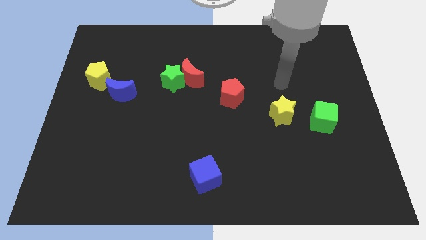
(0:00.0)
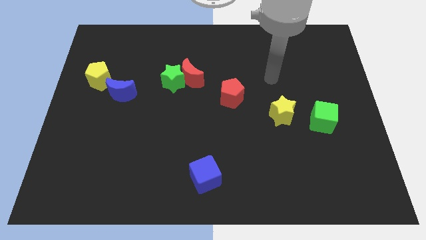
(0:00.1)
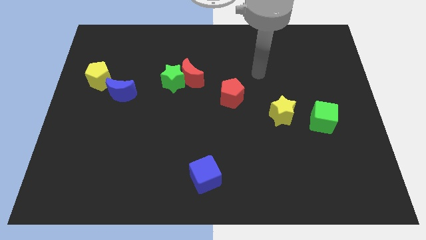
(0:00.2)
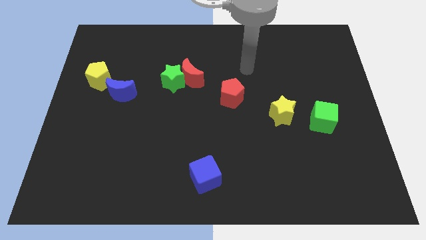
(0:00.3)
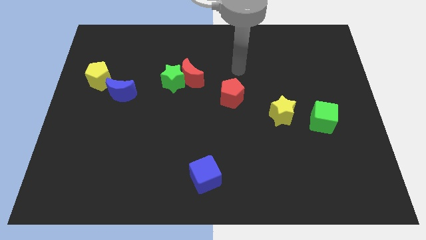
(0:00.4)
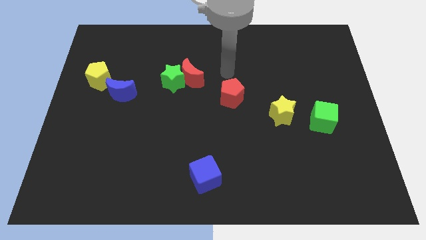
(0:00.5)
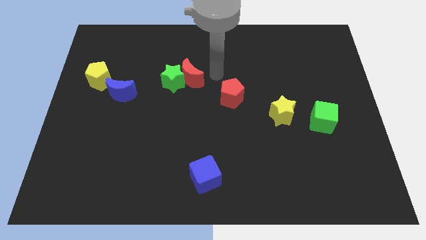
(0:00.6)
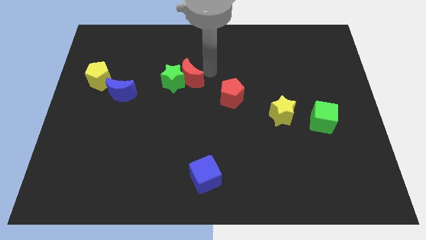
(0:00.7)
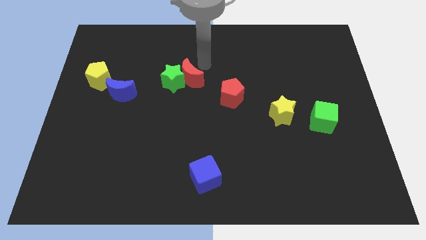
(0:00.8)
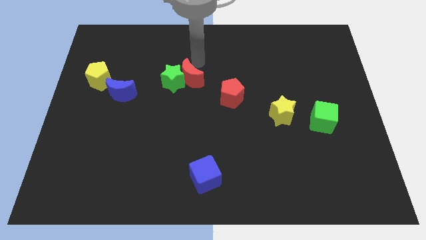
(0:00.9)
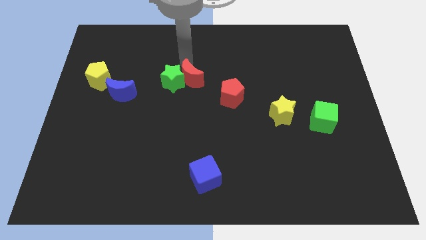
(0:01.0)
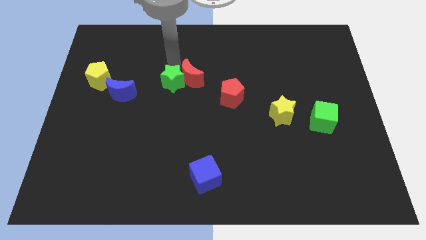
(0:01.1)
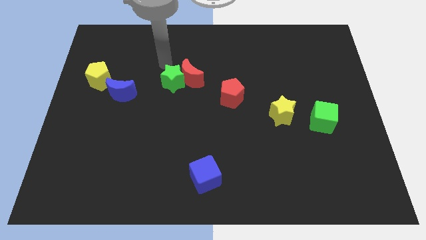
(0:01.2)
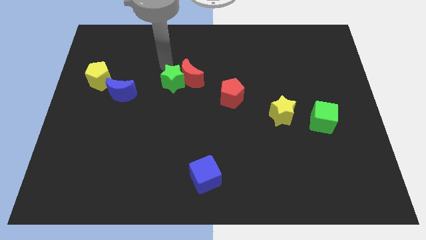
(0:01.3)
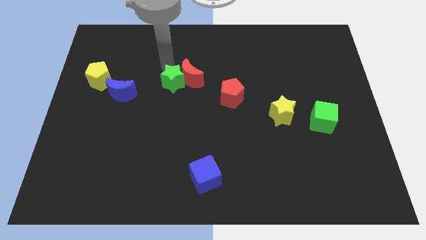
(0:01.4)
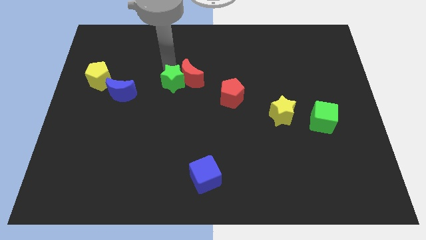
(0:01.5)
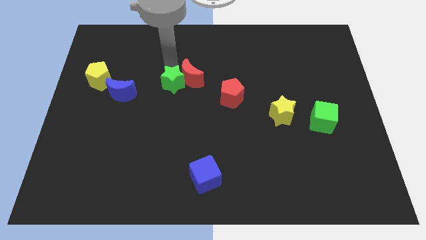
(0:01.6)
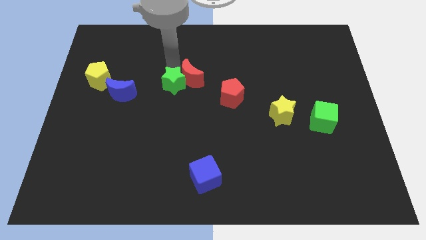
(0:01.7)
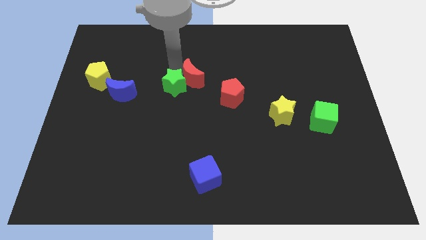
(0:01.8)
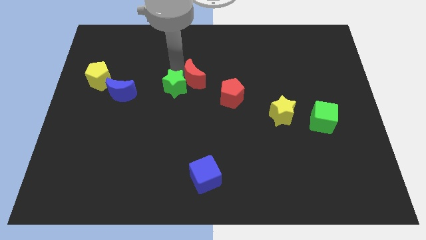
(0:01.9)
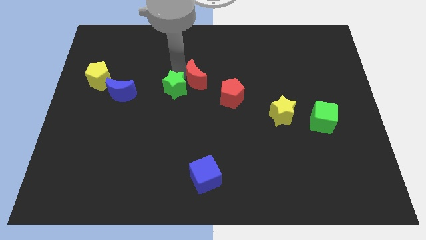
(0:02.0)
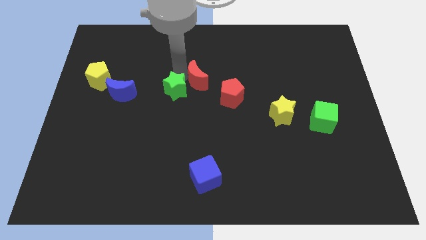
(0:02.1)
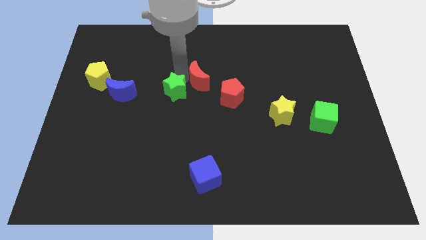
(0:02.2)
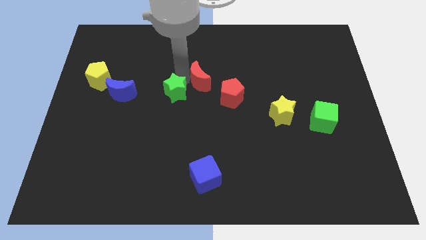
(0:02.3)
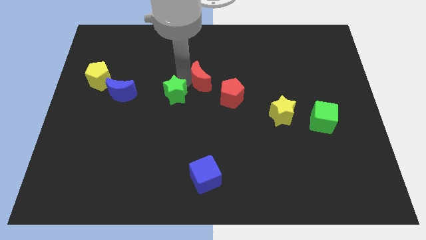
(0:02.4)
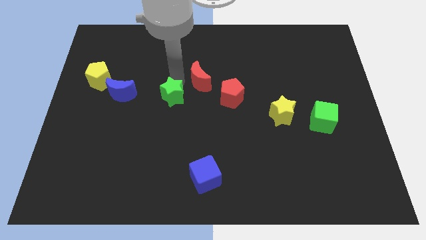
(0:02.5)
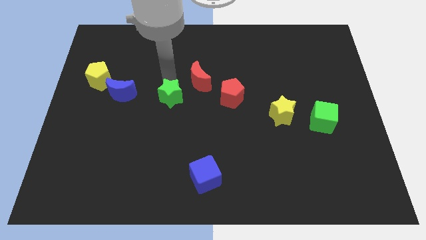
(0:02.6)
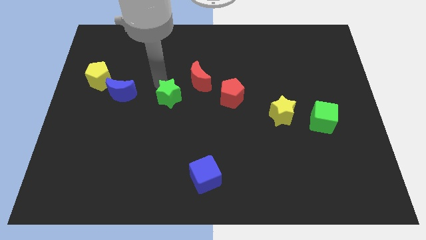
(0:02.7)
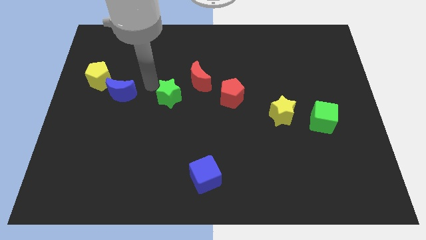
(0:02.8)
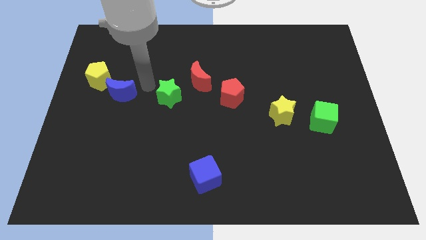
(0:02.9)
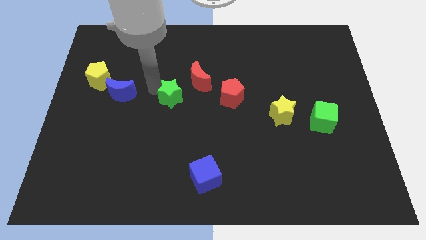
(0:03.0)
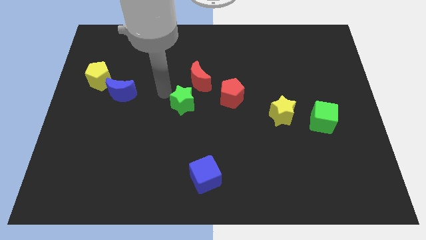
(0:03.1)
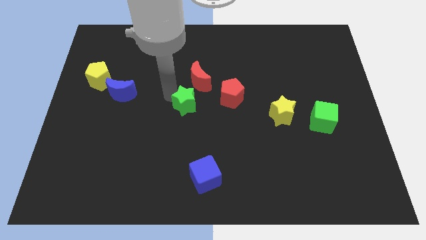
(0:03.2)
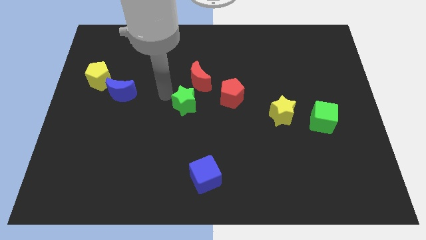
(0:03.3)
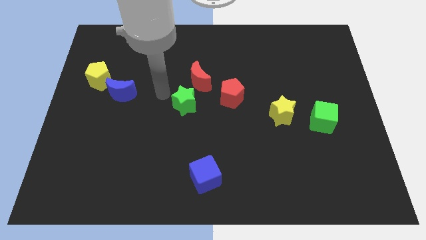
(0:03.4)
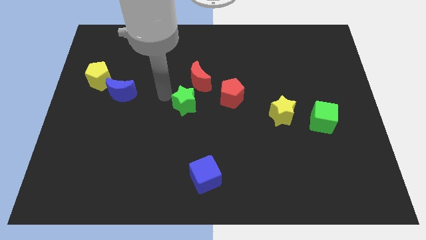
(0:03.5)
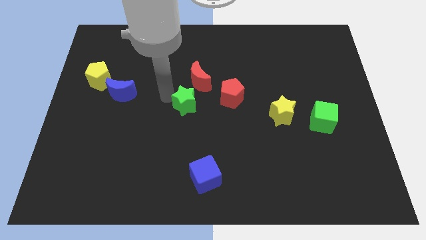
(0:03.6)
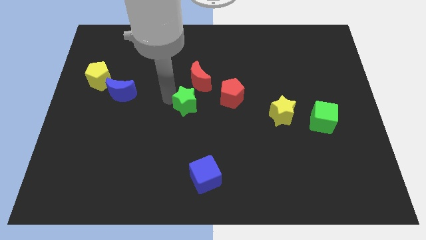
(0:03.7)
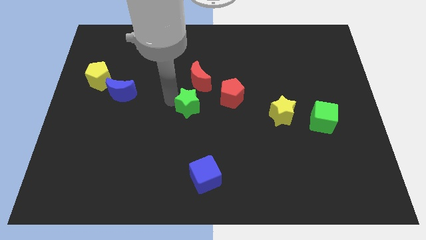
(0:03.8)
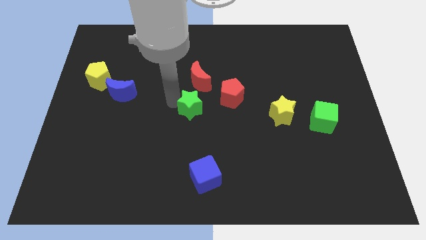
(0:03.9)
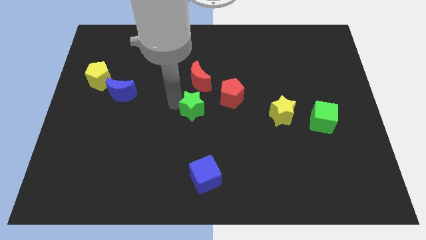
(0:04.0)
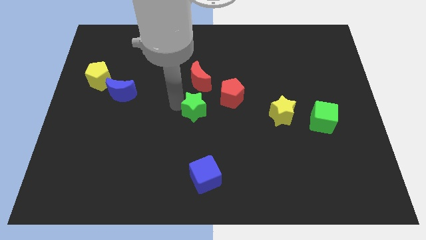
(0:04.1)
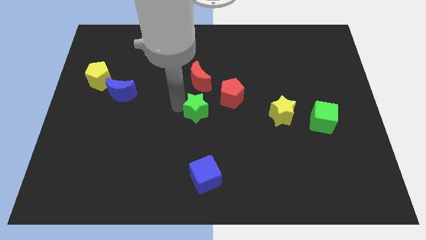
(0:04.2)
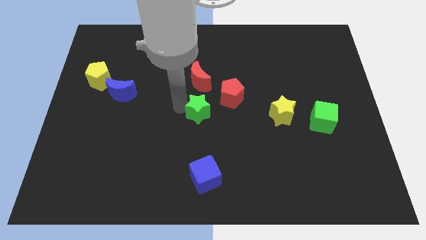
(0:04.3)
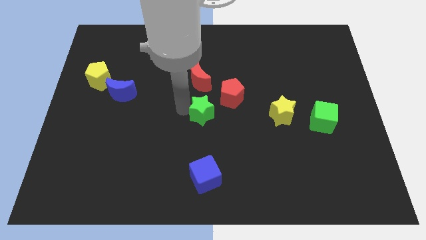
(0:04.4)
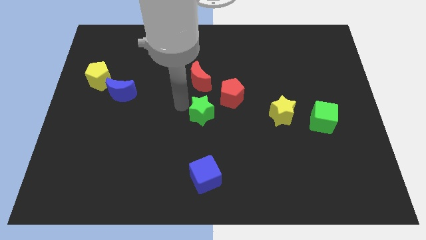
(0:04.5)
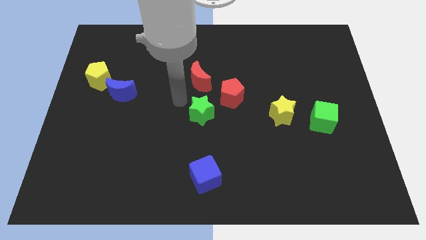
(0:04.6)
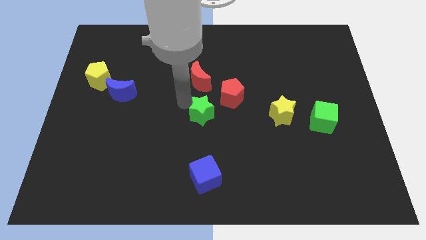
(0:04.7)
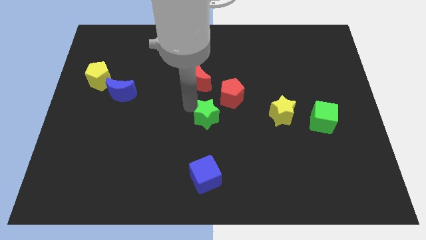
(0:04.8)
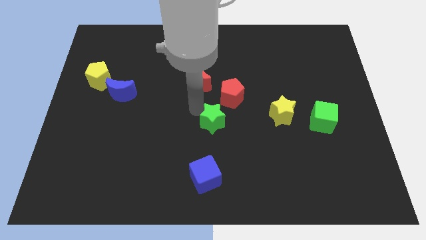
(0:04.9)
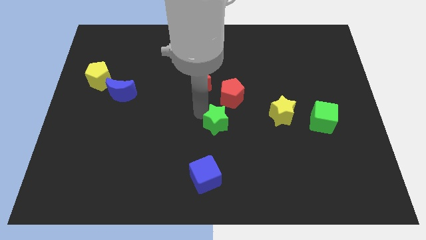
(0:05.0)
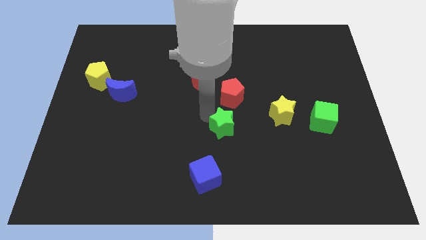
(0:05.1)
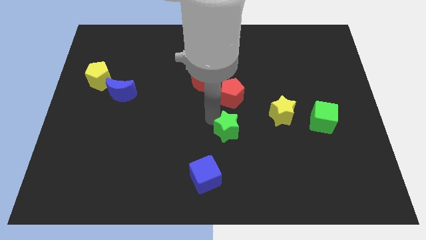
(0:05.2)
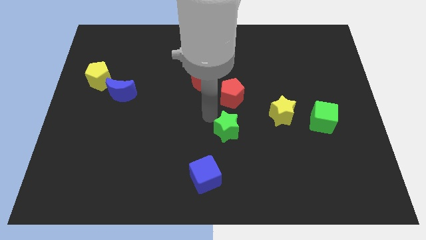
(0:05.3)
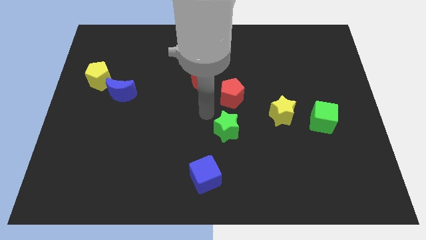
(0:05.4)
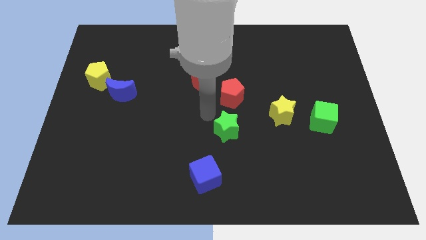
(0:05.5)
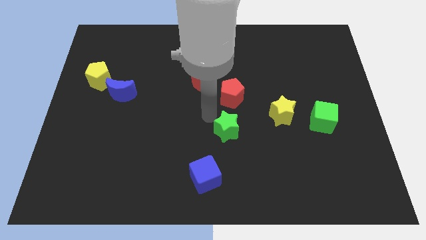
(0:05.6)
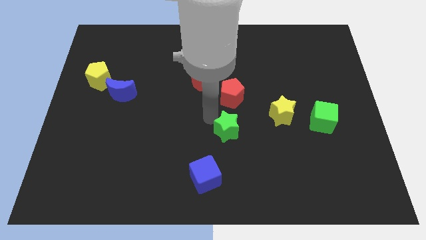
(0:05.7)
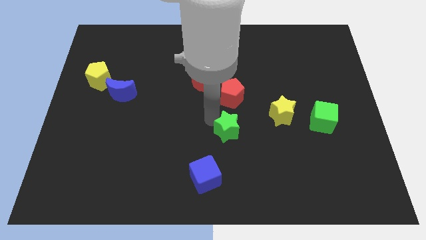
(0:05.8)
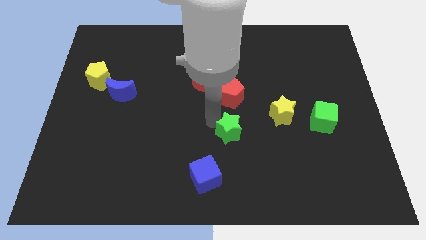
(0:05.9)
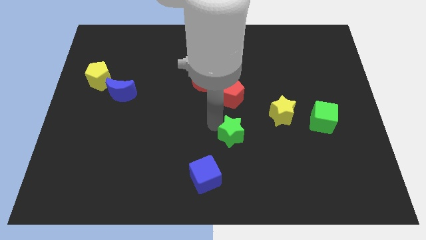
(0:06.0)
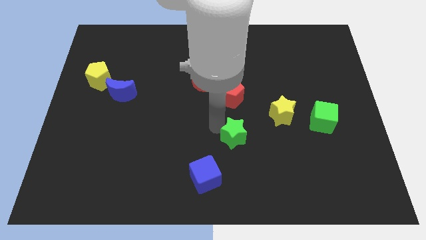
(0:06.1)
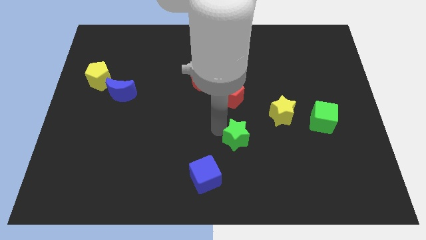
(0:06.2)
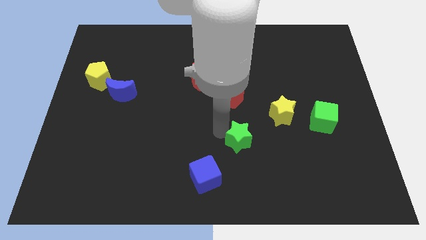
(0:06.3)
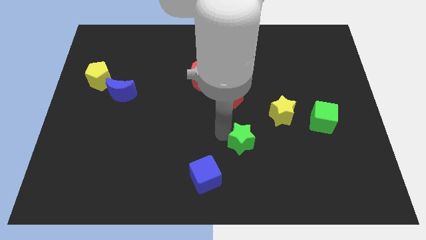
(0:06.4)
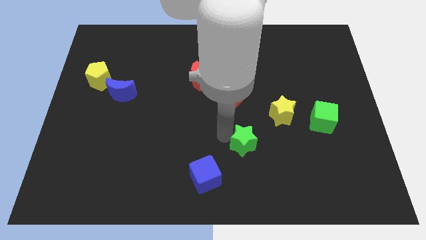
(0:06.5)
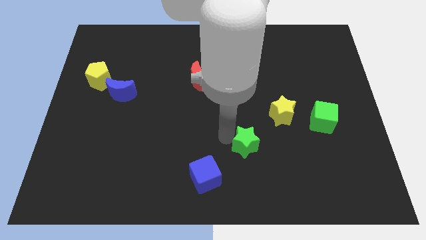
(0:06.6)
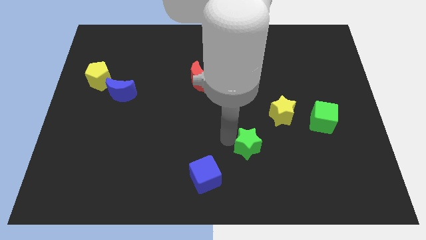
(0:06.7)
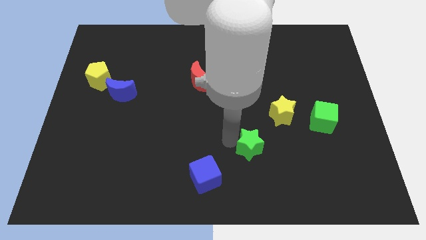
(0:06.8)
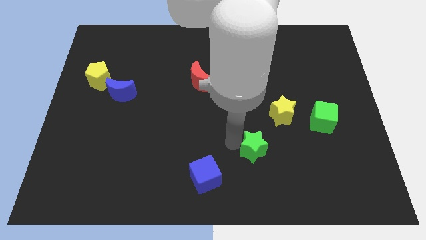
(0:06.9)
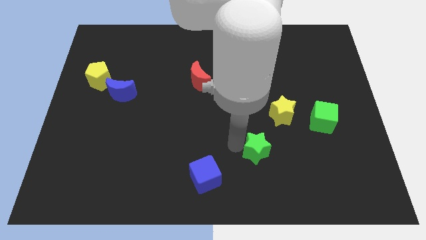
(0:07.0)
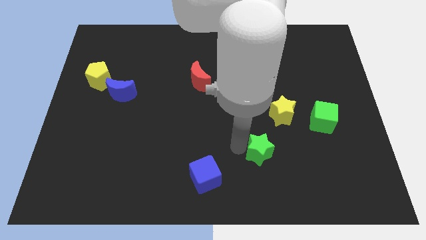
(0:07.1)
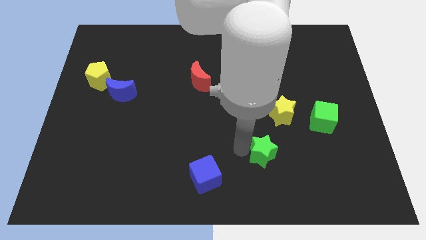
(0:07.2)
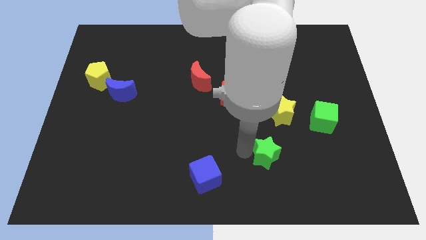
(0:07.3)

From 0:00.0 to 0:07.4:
move the green star to the bottom of the yellow star
